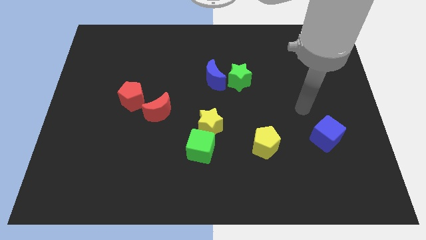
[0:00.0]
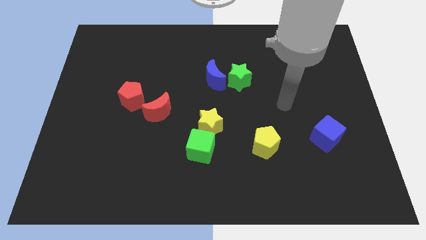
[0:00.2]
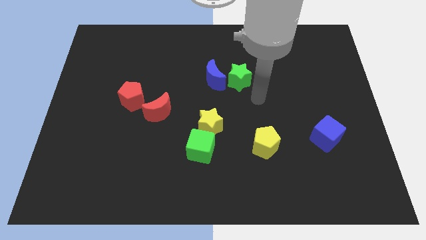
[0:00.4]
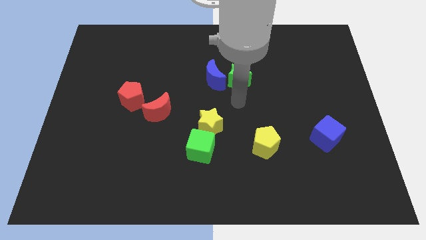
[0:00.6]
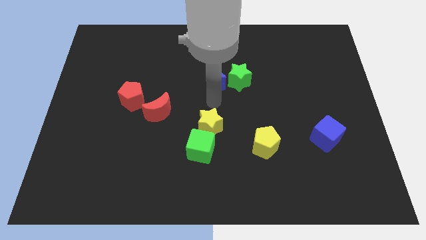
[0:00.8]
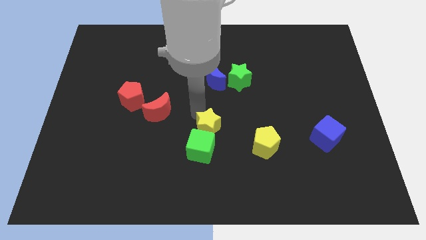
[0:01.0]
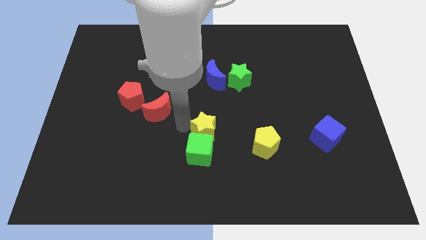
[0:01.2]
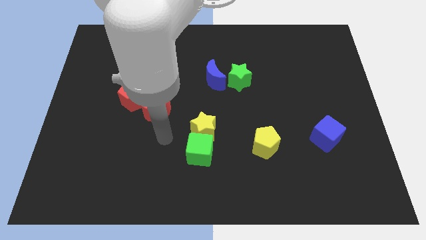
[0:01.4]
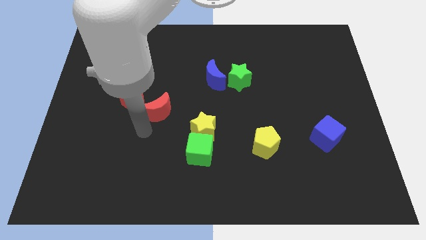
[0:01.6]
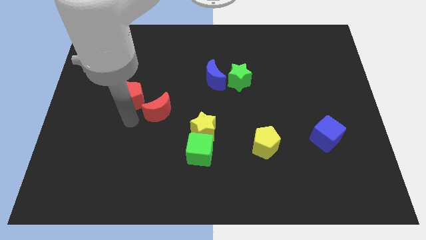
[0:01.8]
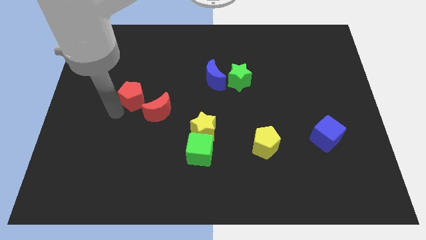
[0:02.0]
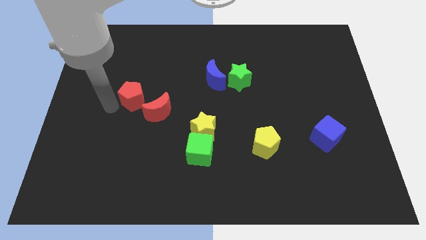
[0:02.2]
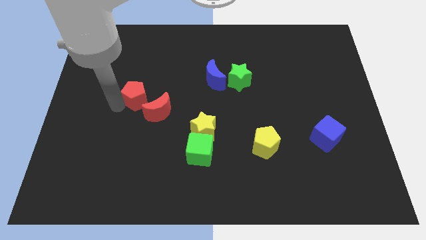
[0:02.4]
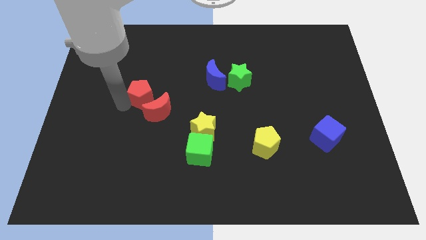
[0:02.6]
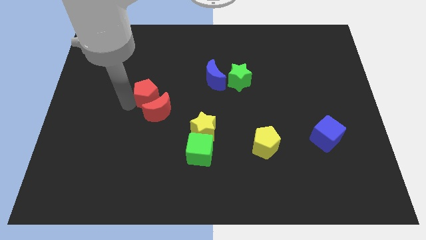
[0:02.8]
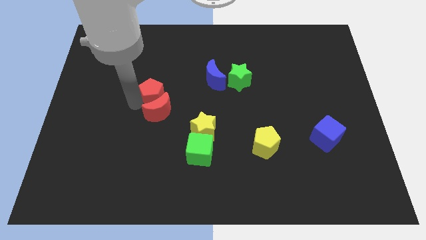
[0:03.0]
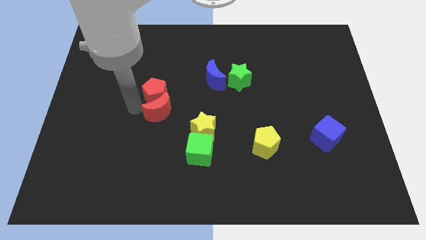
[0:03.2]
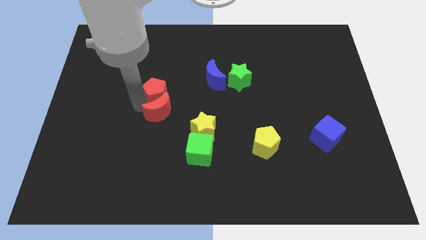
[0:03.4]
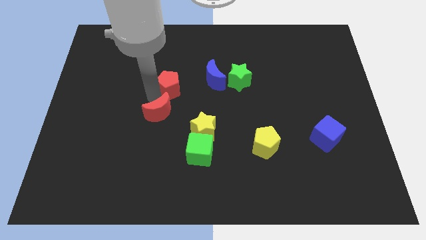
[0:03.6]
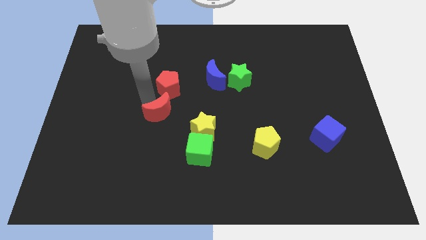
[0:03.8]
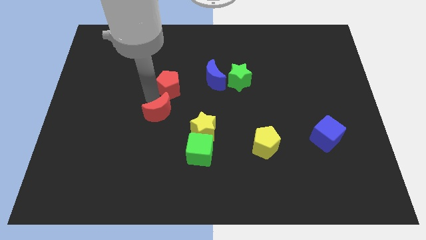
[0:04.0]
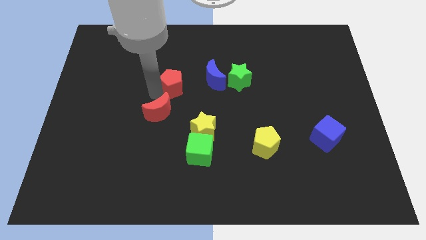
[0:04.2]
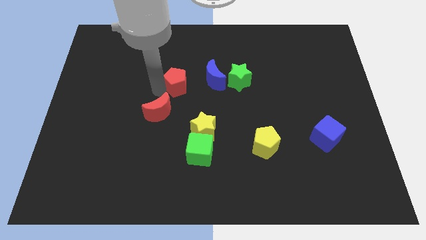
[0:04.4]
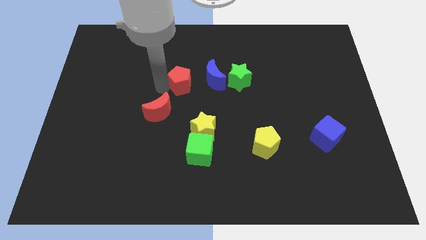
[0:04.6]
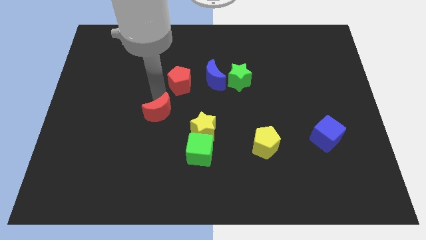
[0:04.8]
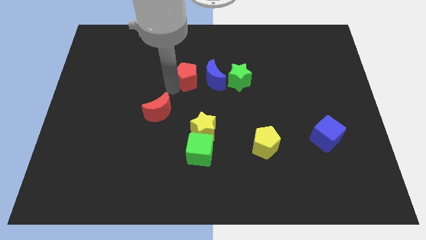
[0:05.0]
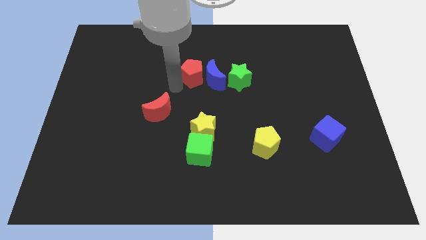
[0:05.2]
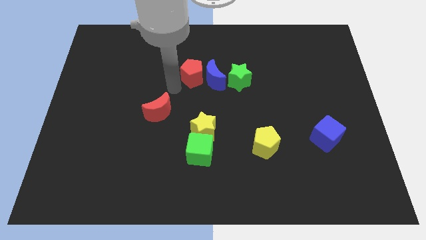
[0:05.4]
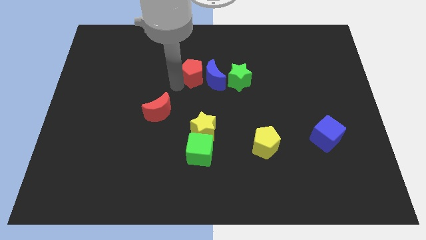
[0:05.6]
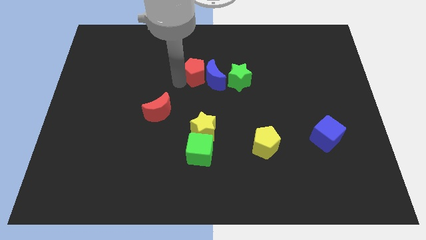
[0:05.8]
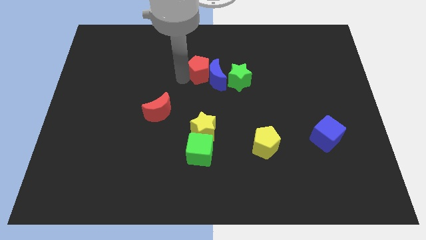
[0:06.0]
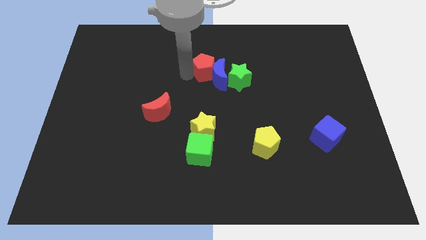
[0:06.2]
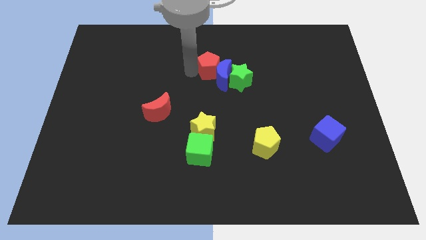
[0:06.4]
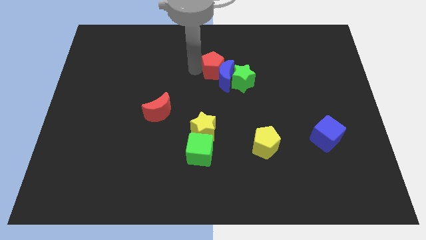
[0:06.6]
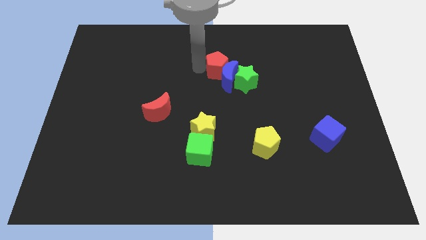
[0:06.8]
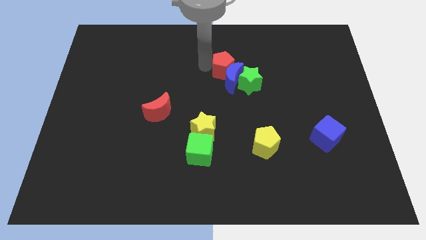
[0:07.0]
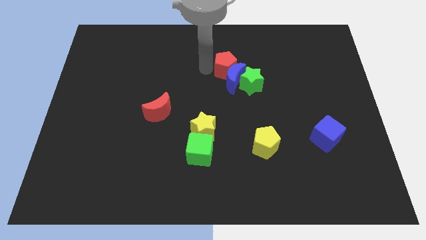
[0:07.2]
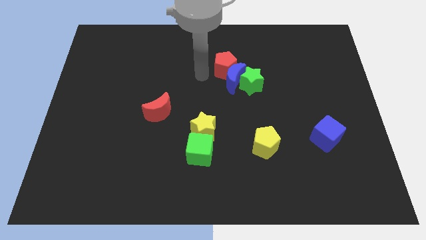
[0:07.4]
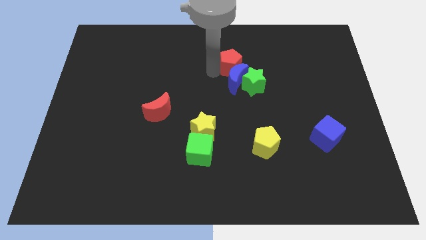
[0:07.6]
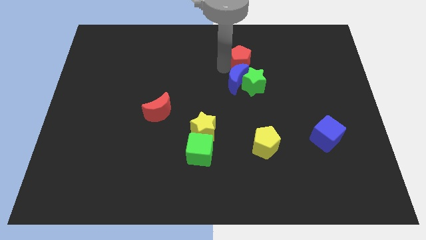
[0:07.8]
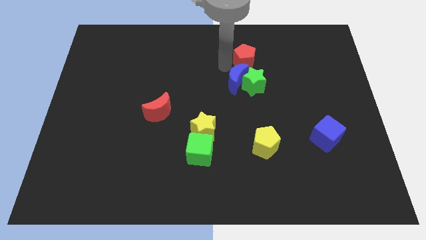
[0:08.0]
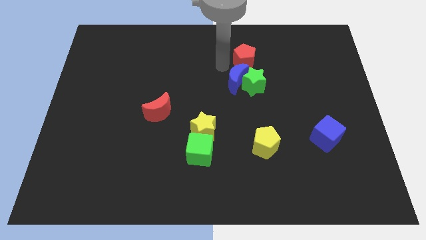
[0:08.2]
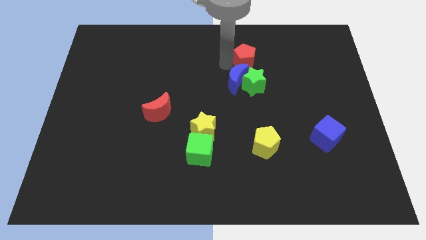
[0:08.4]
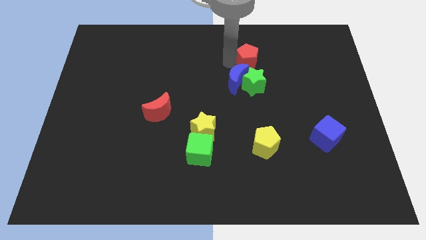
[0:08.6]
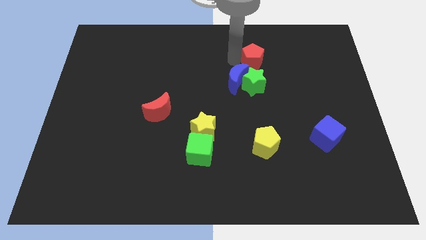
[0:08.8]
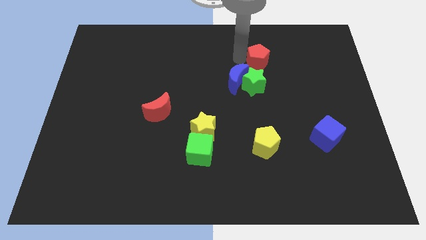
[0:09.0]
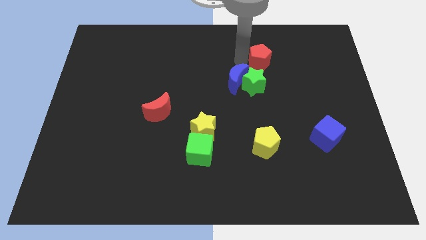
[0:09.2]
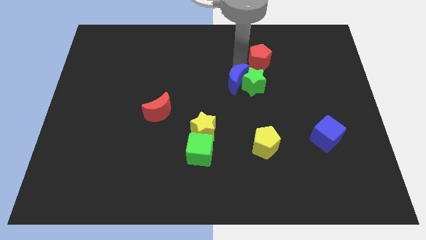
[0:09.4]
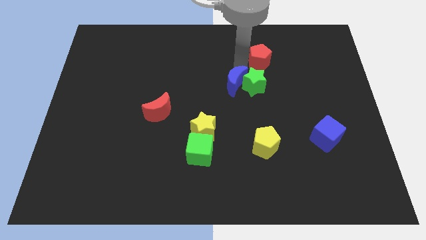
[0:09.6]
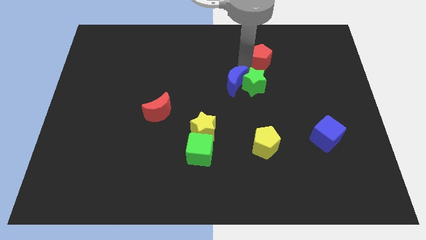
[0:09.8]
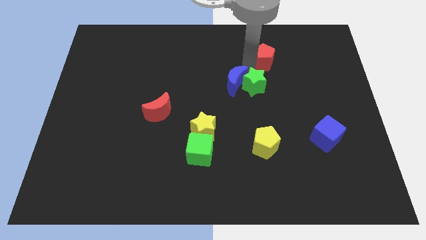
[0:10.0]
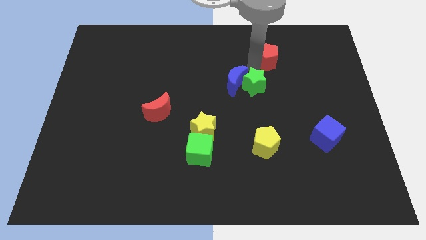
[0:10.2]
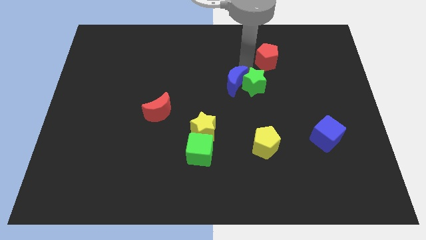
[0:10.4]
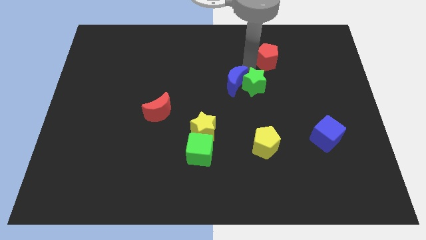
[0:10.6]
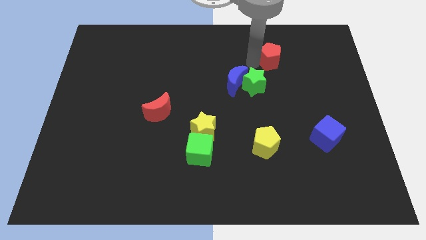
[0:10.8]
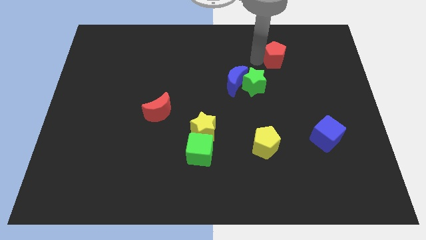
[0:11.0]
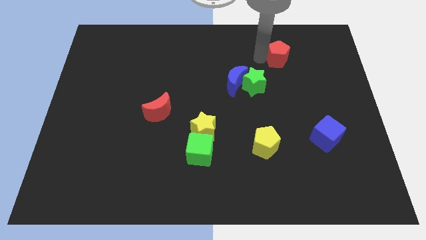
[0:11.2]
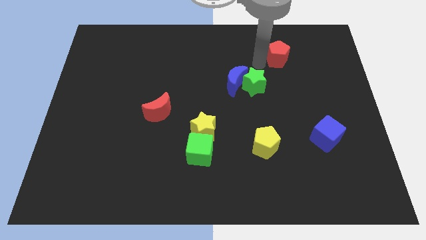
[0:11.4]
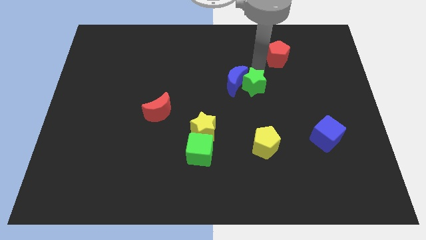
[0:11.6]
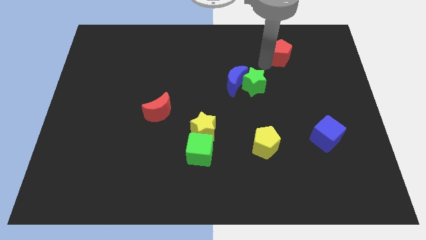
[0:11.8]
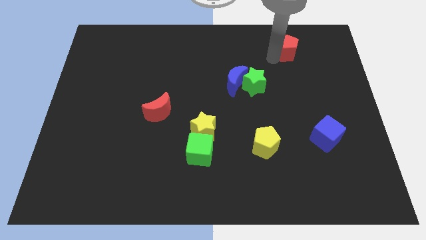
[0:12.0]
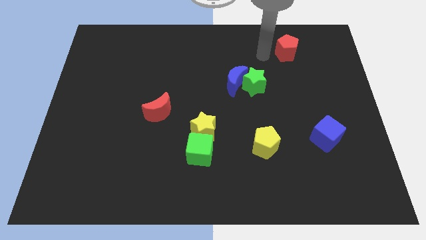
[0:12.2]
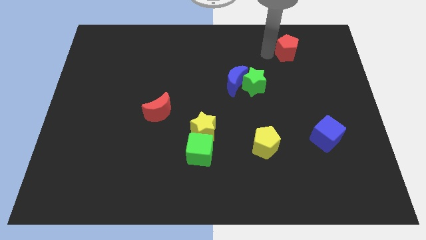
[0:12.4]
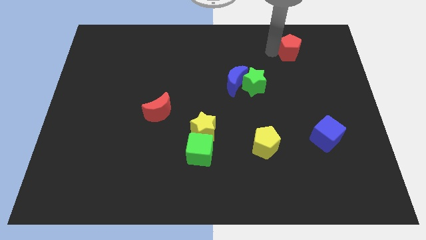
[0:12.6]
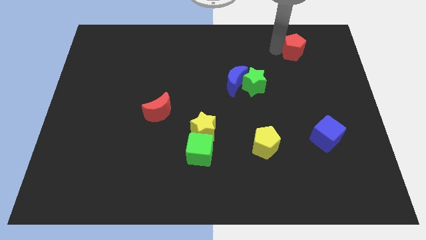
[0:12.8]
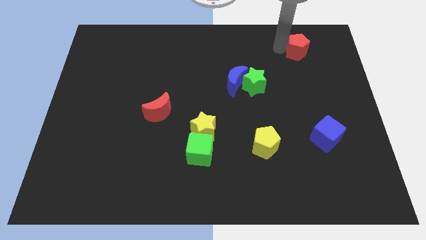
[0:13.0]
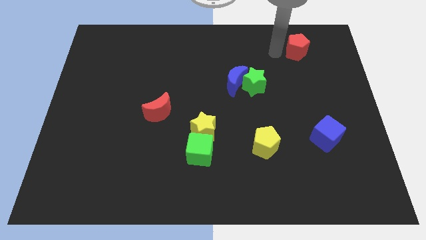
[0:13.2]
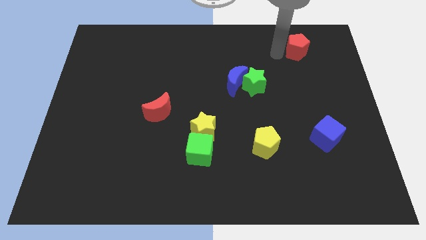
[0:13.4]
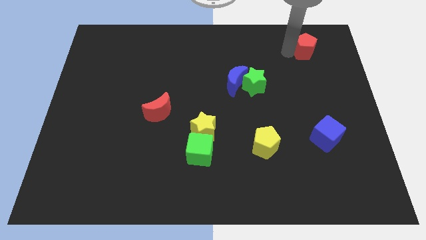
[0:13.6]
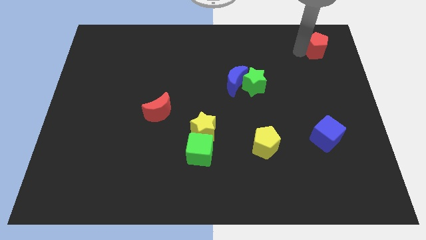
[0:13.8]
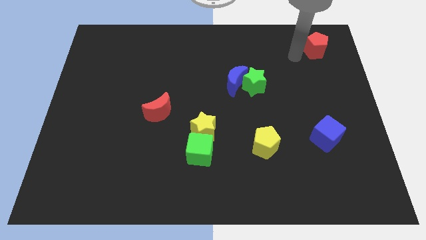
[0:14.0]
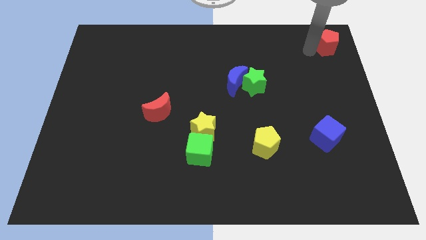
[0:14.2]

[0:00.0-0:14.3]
slide the red pentagon to the top right
